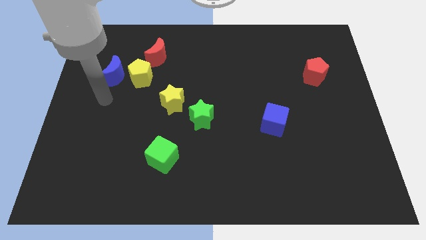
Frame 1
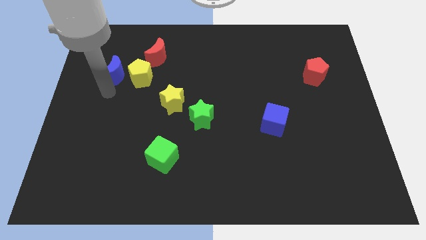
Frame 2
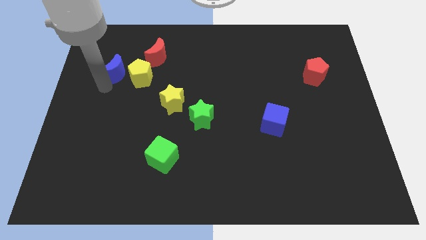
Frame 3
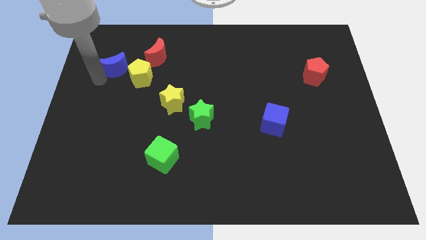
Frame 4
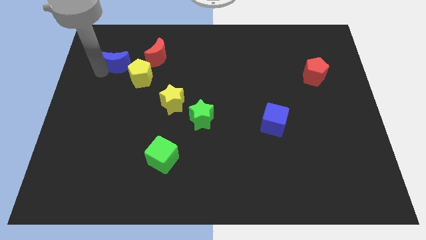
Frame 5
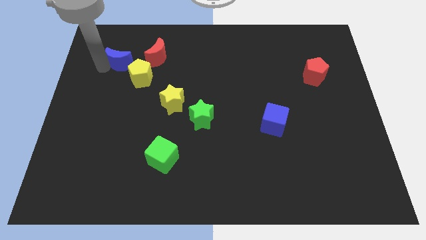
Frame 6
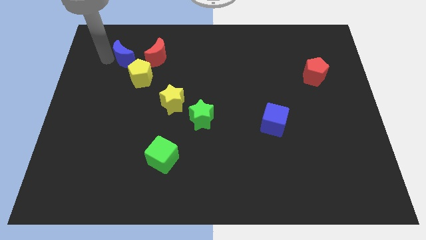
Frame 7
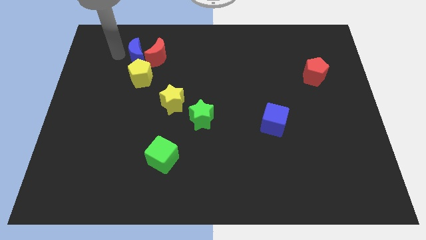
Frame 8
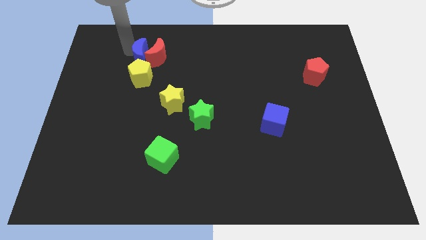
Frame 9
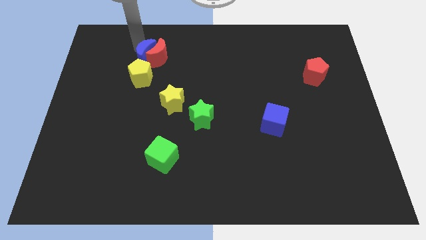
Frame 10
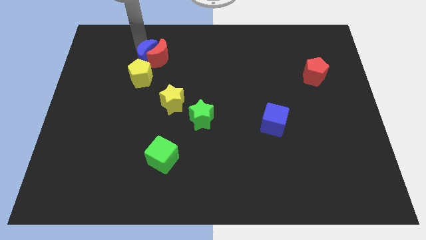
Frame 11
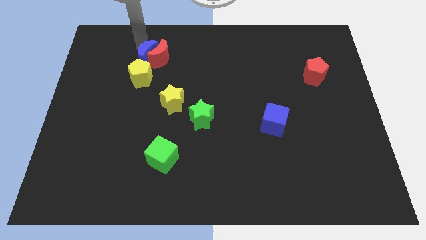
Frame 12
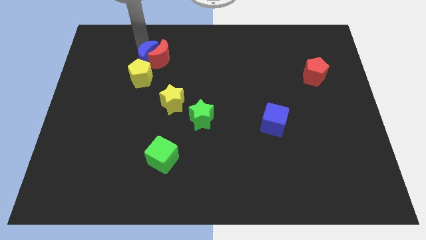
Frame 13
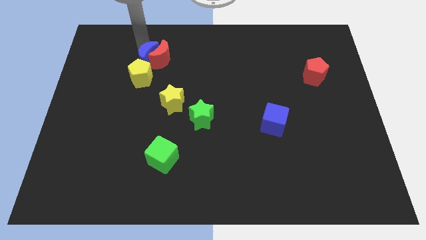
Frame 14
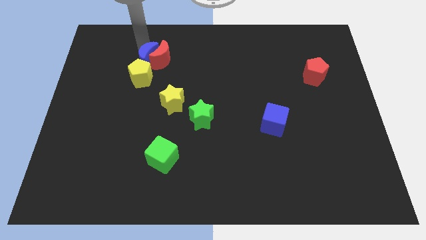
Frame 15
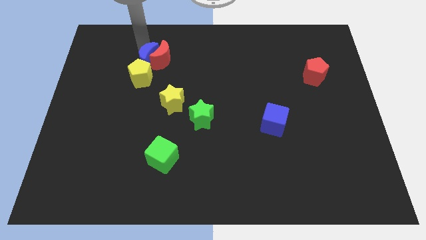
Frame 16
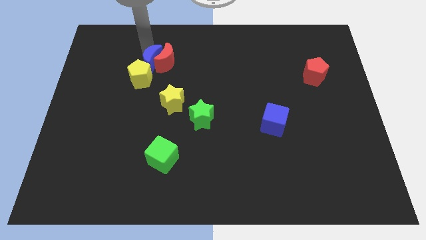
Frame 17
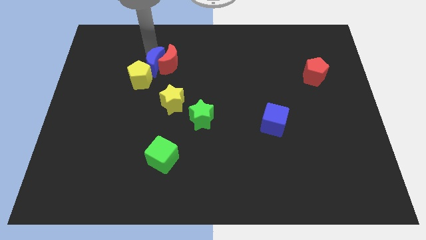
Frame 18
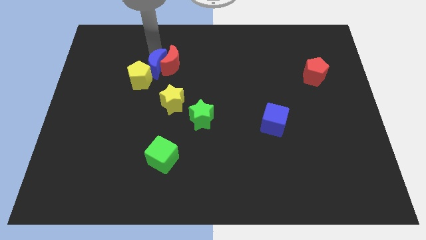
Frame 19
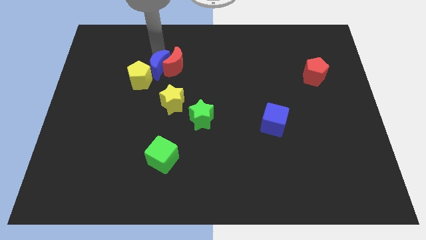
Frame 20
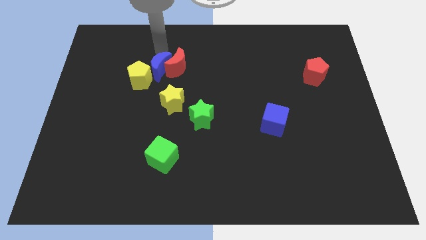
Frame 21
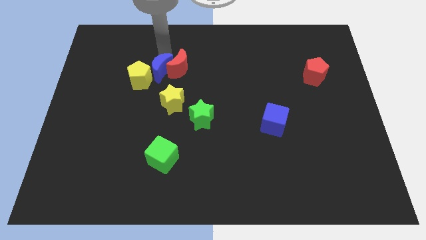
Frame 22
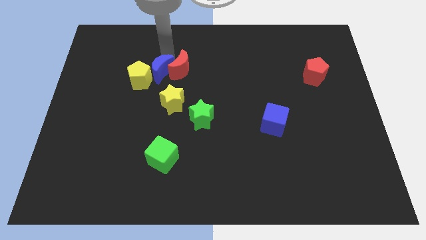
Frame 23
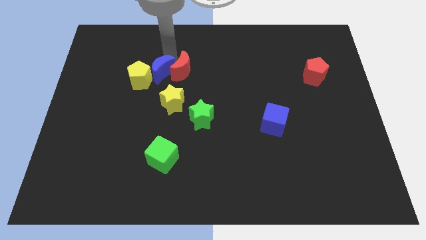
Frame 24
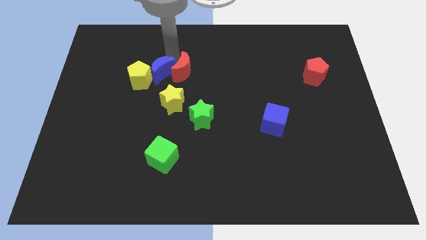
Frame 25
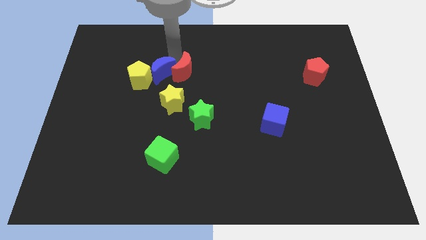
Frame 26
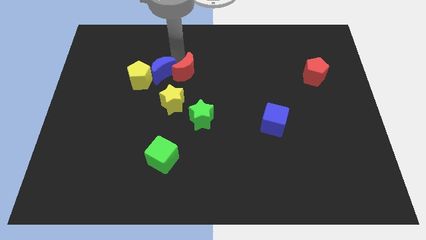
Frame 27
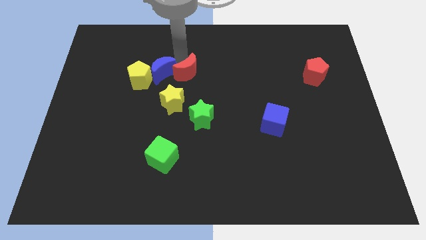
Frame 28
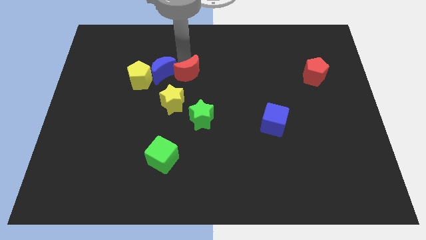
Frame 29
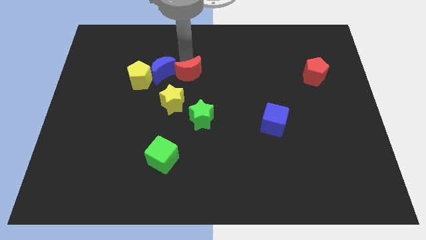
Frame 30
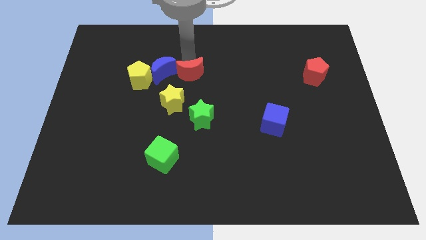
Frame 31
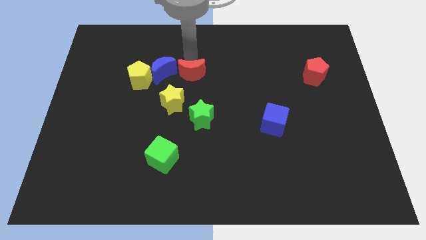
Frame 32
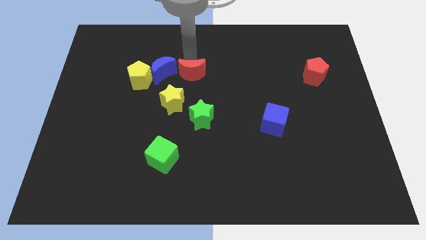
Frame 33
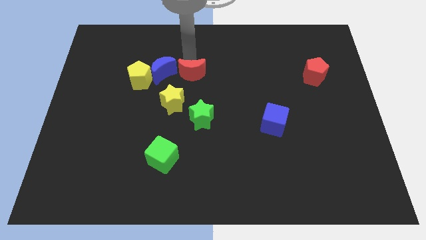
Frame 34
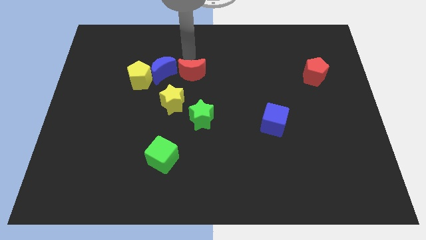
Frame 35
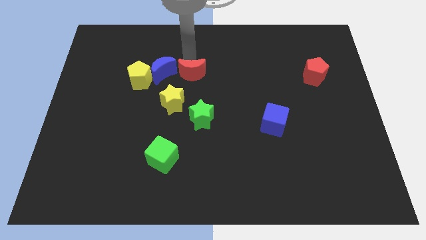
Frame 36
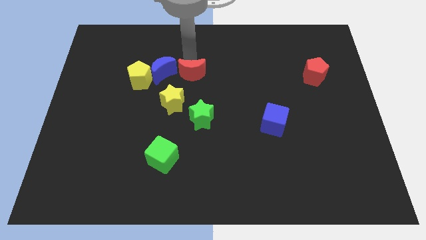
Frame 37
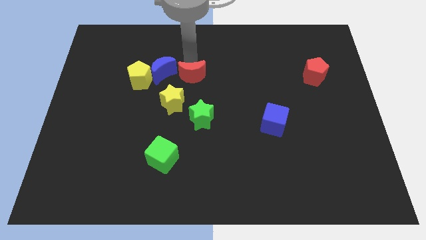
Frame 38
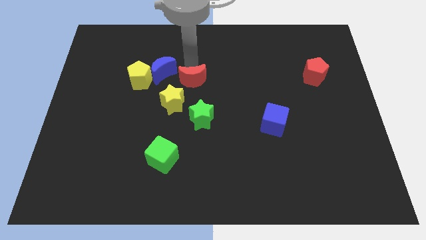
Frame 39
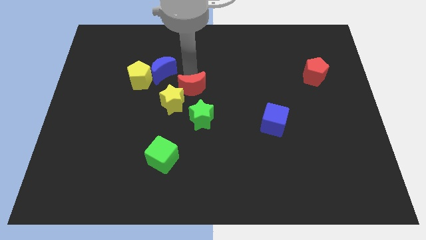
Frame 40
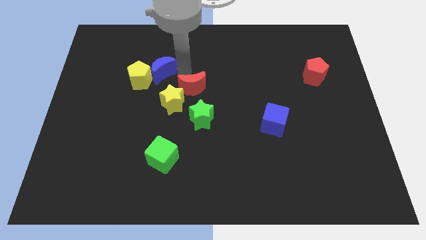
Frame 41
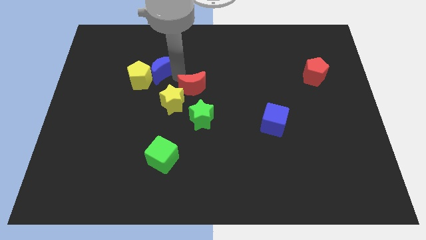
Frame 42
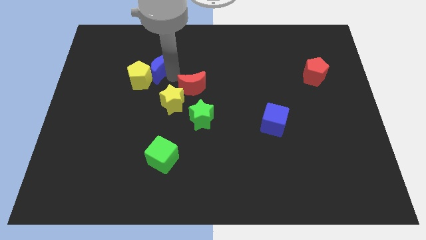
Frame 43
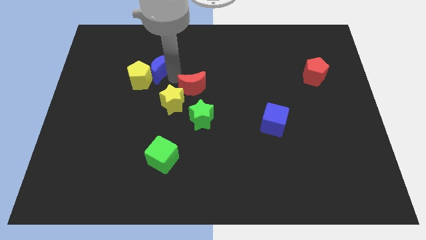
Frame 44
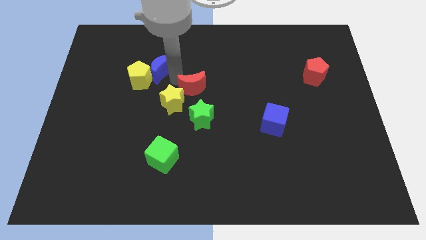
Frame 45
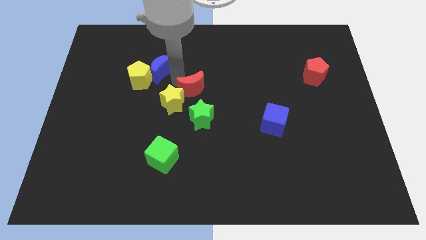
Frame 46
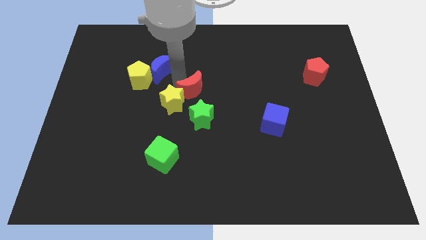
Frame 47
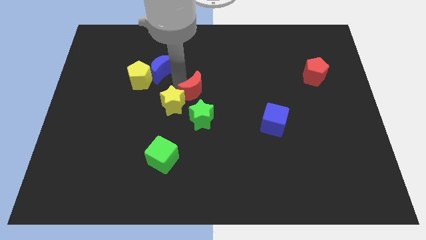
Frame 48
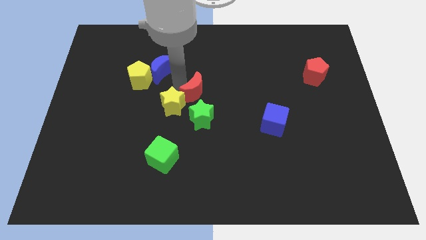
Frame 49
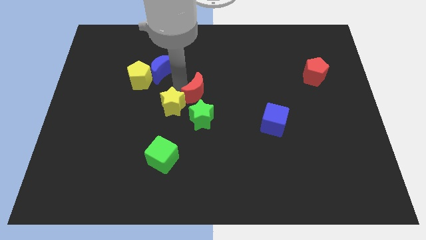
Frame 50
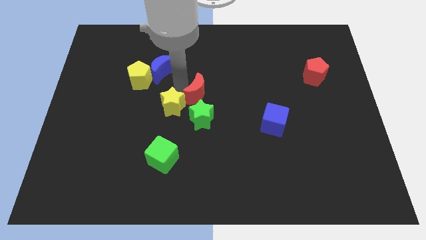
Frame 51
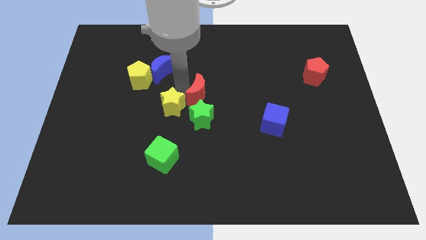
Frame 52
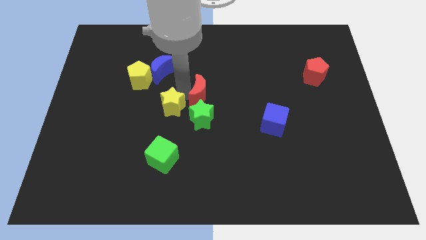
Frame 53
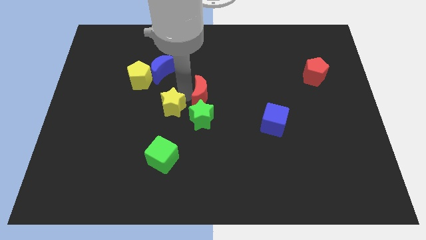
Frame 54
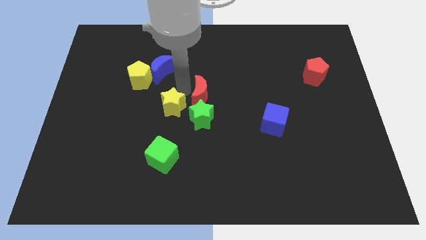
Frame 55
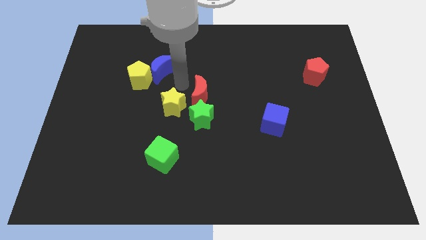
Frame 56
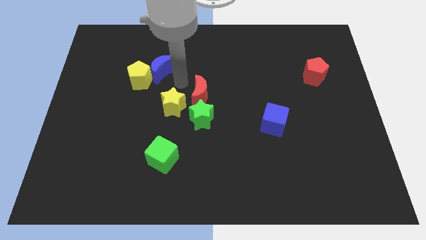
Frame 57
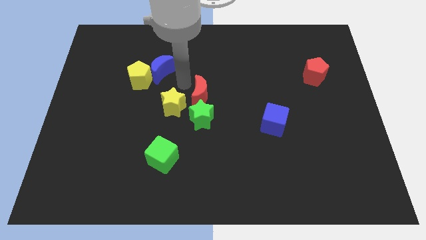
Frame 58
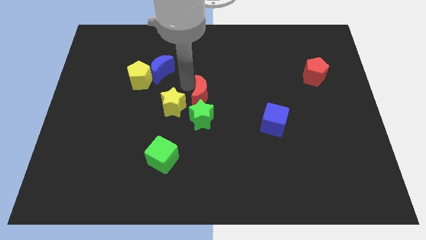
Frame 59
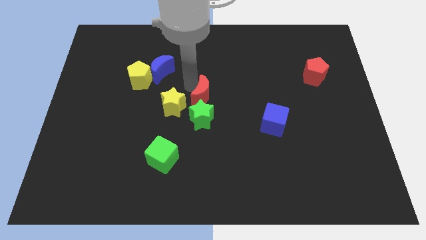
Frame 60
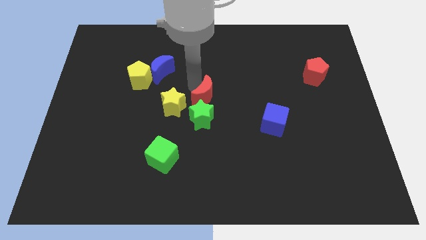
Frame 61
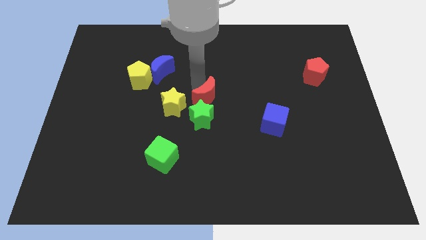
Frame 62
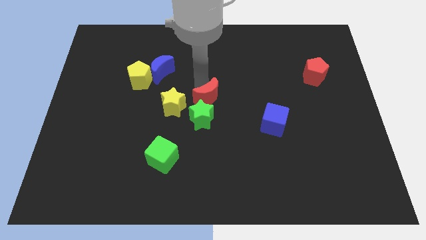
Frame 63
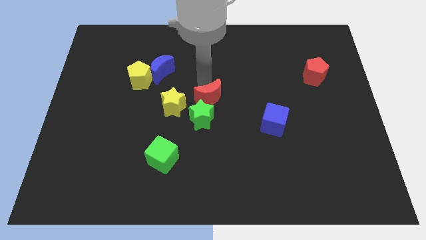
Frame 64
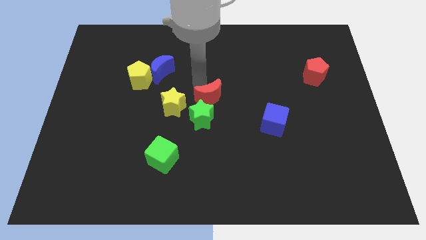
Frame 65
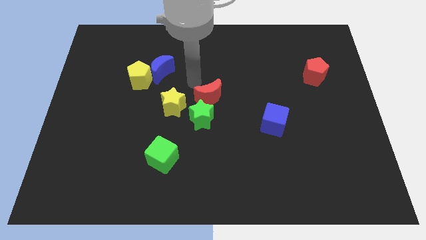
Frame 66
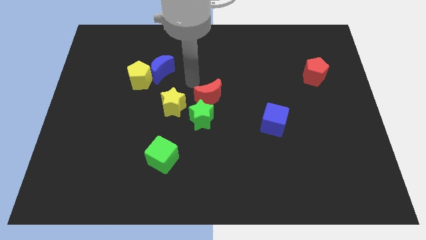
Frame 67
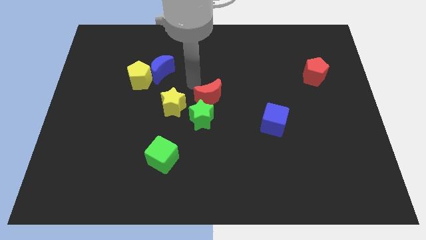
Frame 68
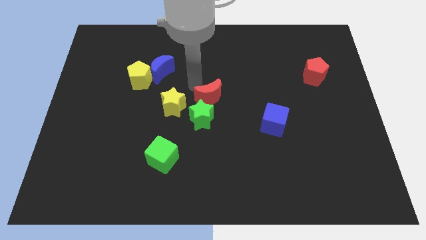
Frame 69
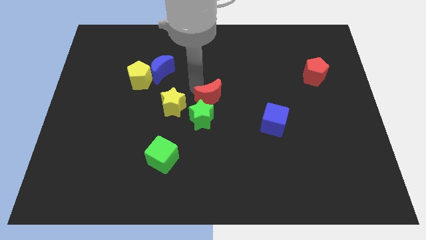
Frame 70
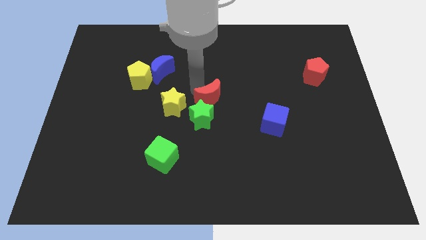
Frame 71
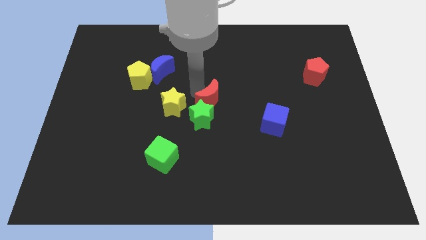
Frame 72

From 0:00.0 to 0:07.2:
move the red moon downwards and right

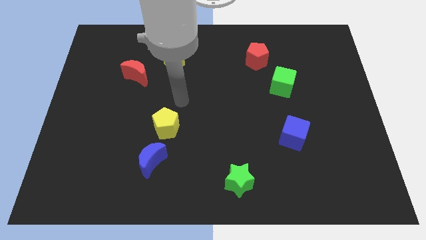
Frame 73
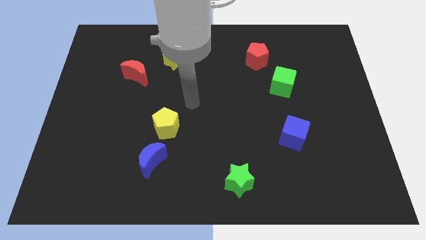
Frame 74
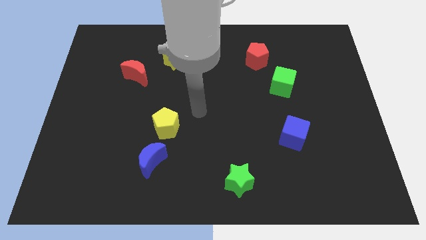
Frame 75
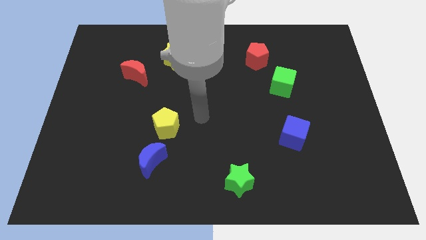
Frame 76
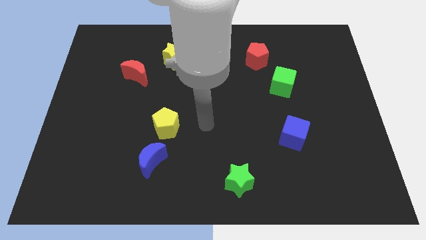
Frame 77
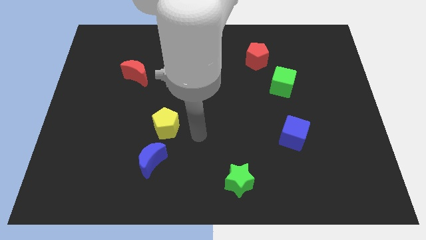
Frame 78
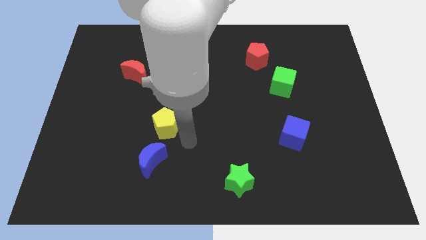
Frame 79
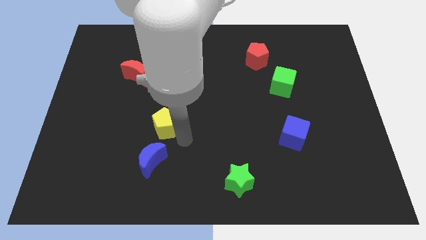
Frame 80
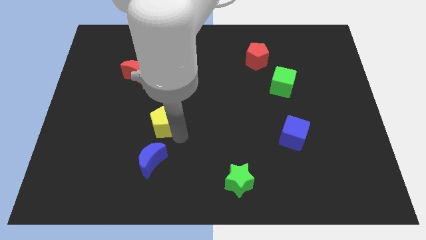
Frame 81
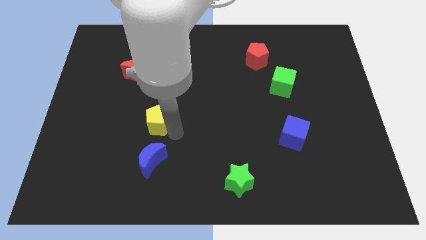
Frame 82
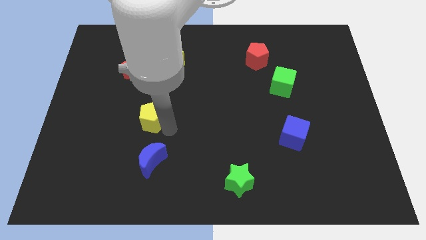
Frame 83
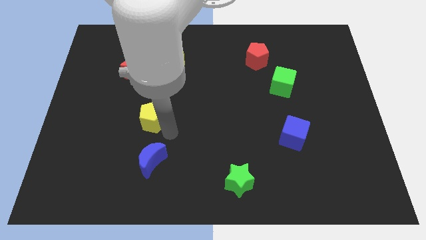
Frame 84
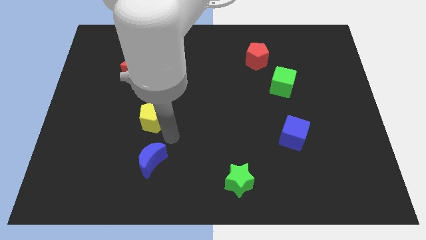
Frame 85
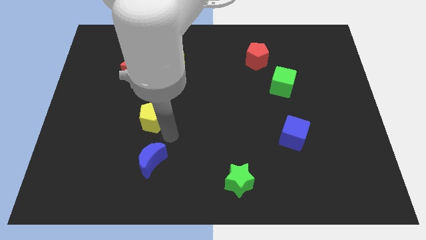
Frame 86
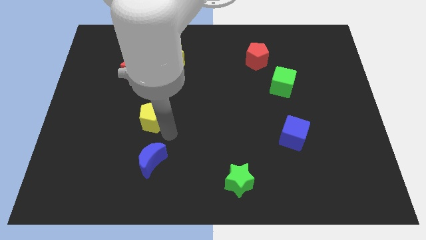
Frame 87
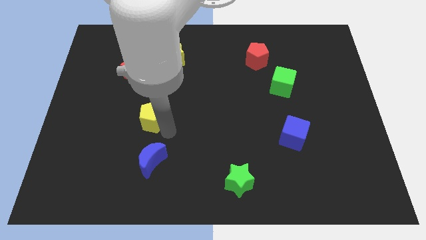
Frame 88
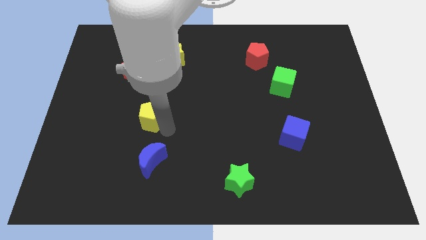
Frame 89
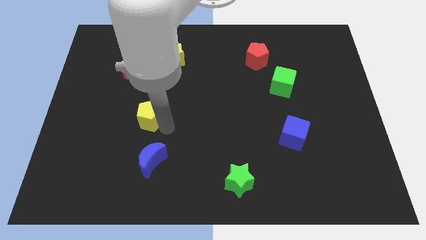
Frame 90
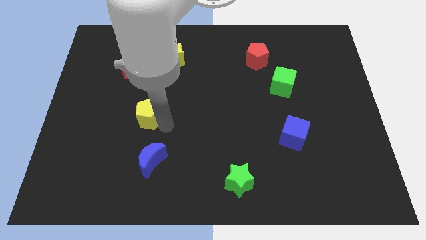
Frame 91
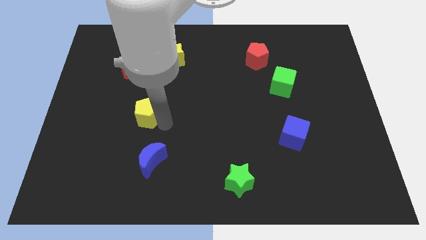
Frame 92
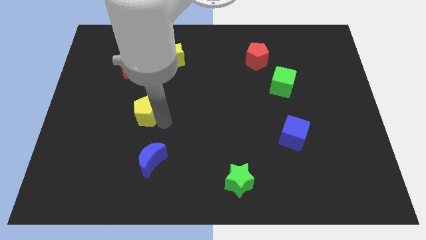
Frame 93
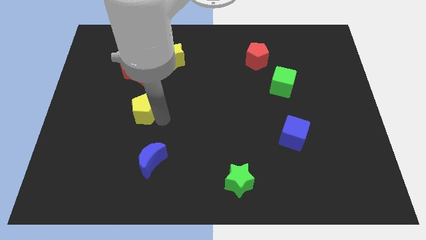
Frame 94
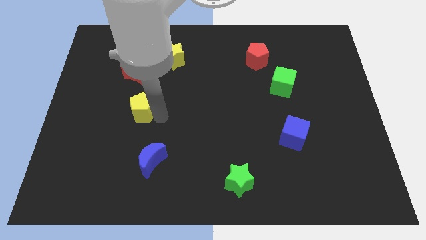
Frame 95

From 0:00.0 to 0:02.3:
move the yellow pentagon up and left a little bit
